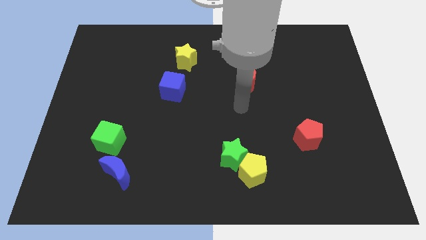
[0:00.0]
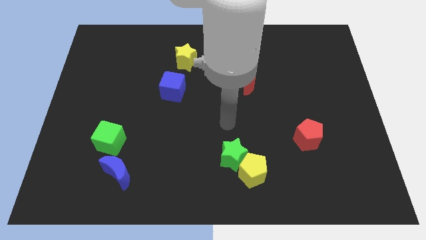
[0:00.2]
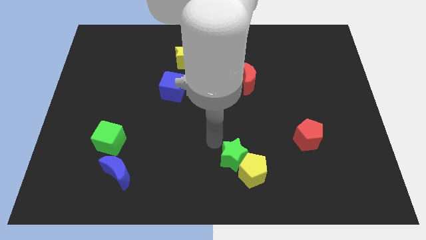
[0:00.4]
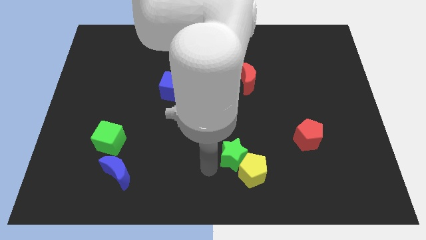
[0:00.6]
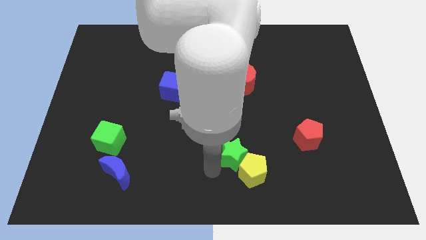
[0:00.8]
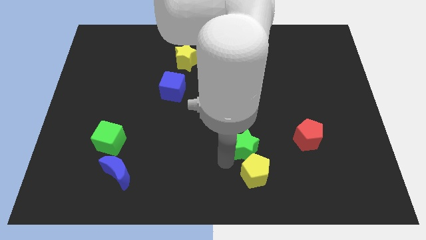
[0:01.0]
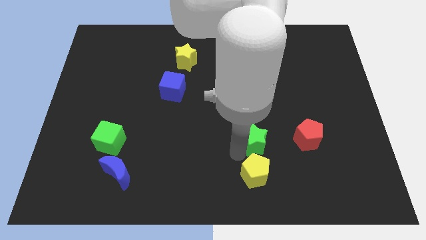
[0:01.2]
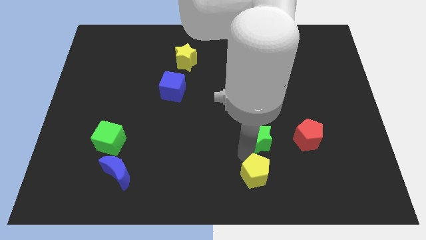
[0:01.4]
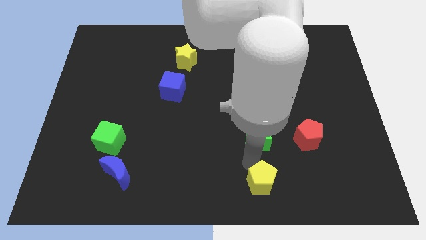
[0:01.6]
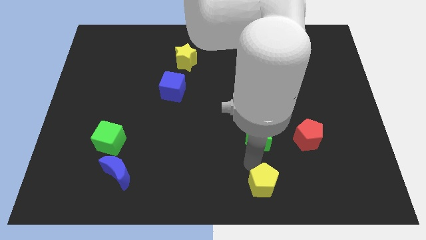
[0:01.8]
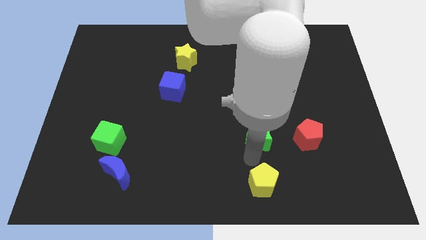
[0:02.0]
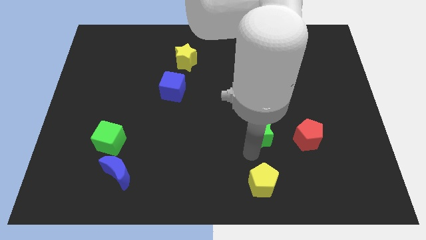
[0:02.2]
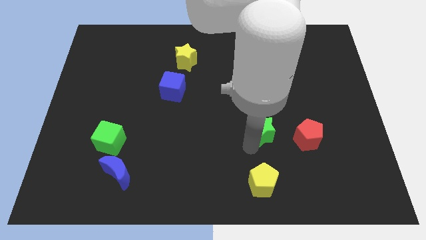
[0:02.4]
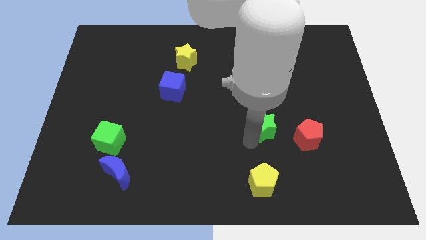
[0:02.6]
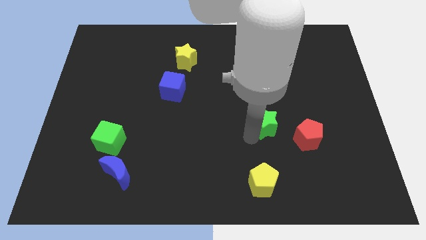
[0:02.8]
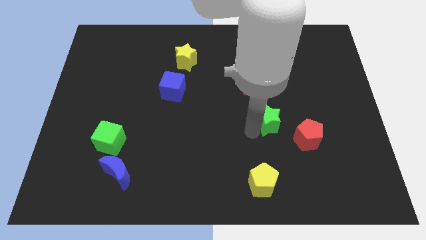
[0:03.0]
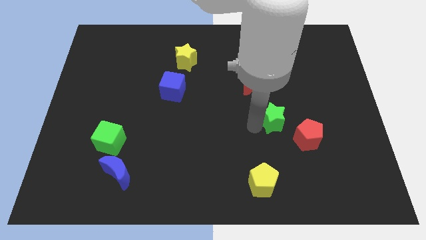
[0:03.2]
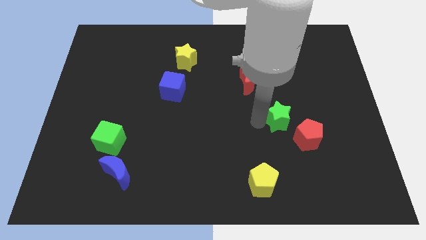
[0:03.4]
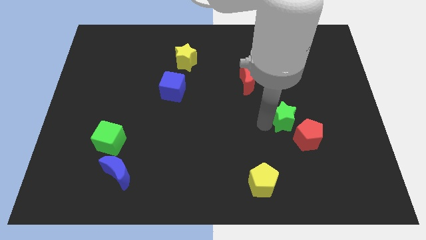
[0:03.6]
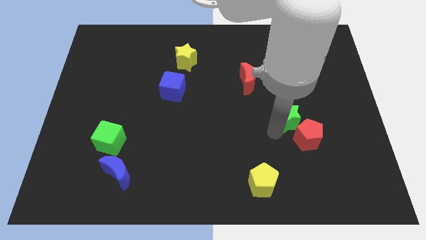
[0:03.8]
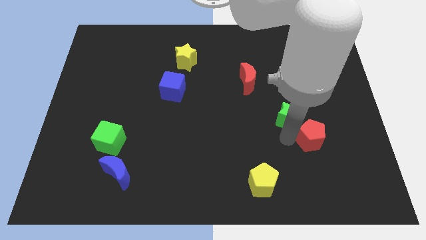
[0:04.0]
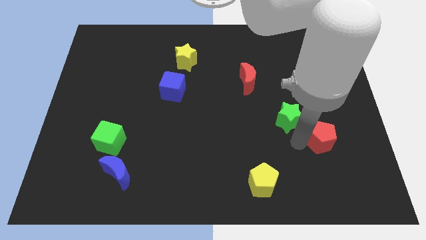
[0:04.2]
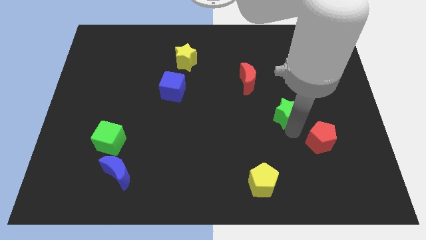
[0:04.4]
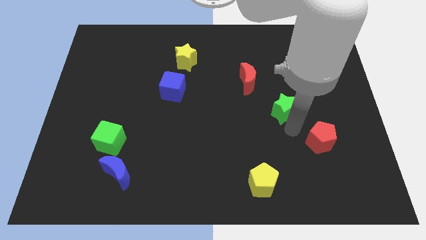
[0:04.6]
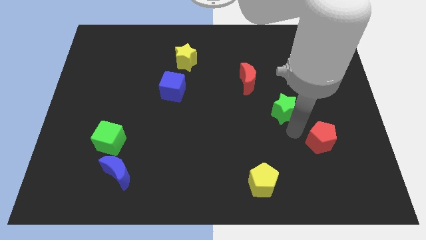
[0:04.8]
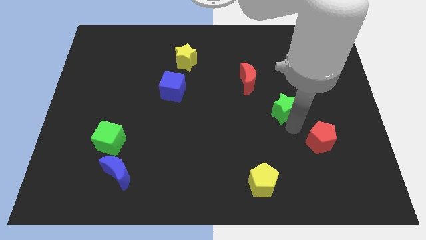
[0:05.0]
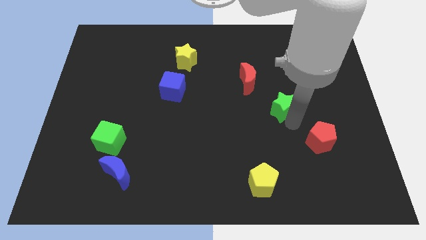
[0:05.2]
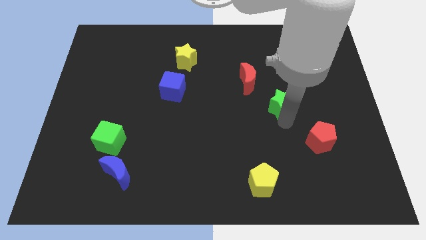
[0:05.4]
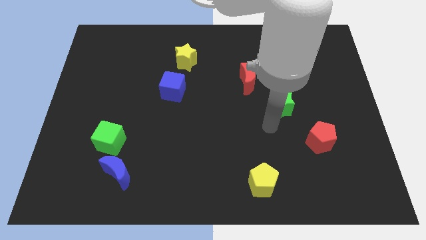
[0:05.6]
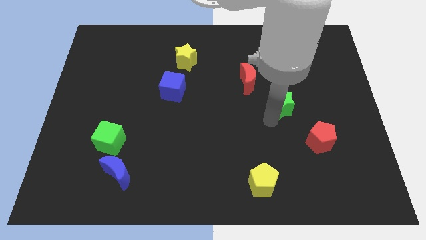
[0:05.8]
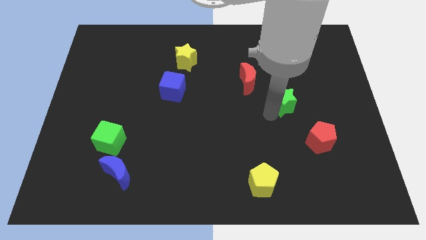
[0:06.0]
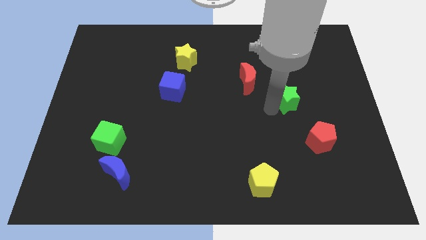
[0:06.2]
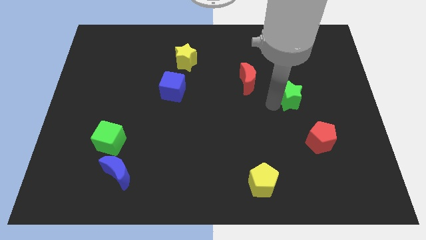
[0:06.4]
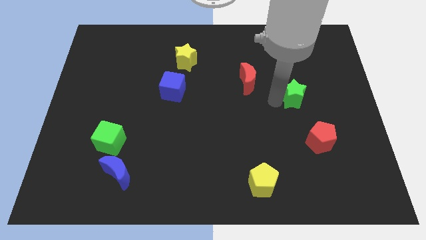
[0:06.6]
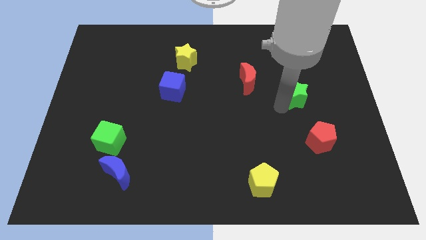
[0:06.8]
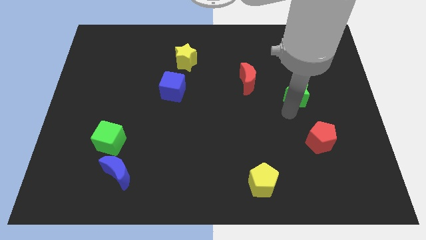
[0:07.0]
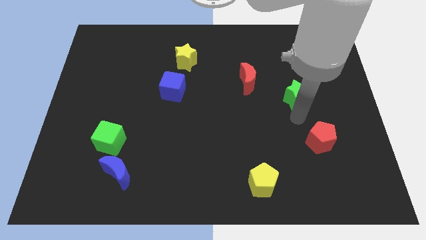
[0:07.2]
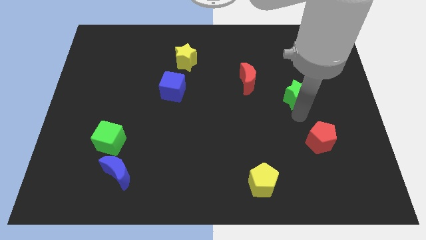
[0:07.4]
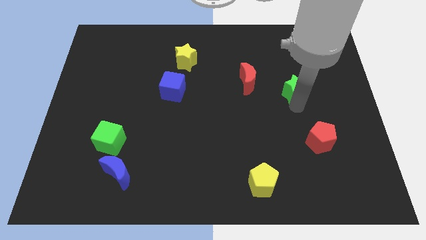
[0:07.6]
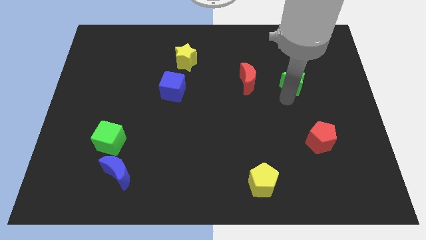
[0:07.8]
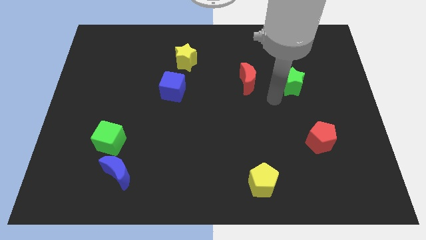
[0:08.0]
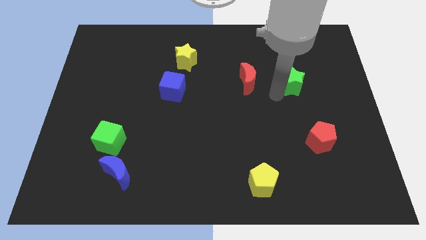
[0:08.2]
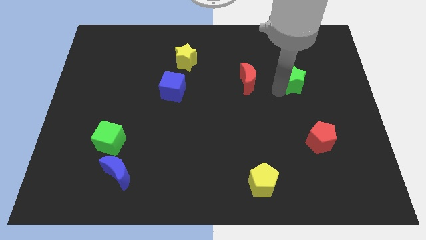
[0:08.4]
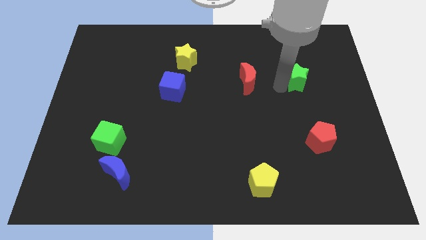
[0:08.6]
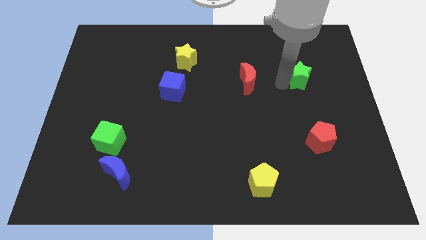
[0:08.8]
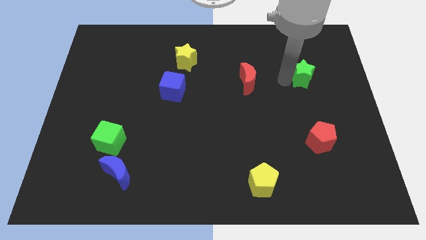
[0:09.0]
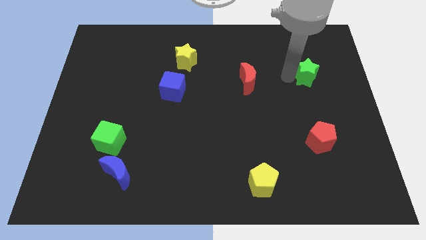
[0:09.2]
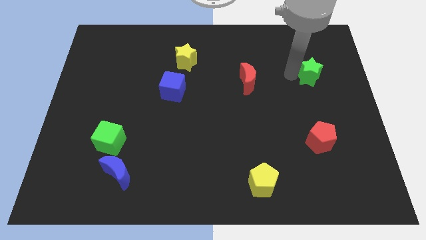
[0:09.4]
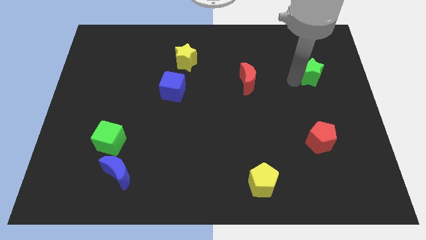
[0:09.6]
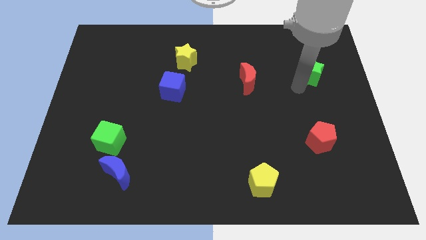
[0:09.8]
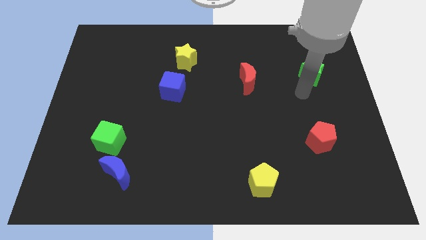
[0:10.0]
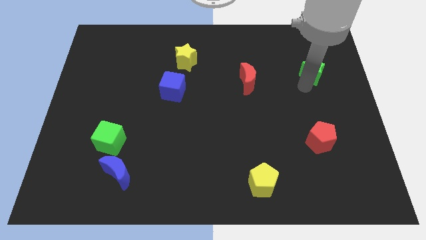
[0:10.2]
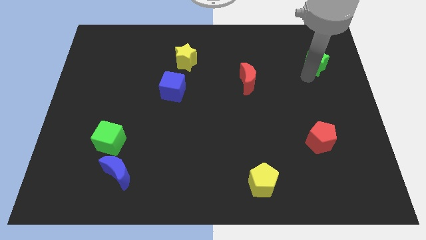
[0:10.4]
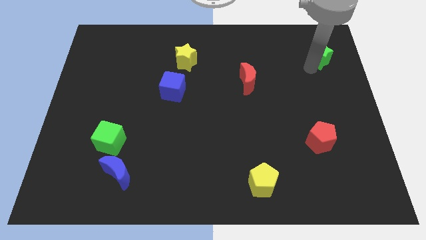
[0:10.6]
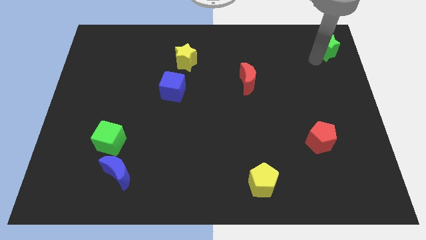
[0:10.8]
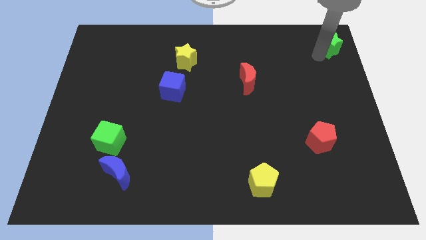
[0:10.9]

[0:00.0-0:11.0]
put the green star to the top right

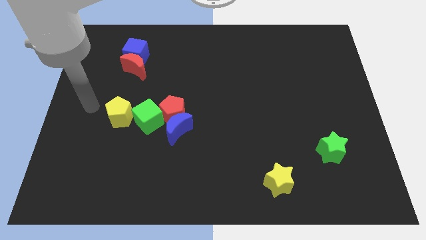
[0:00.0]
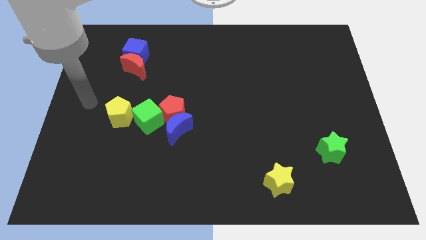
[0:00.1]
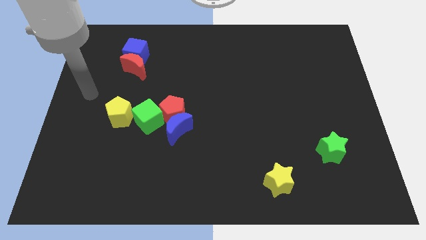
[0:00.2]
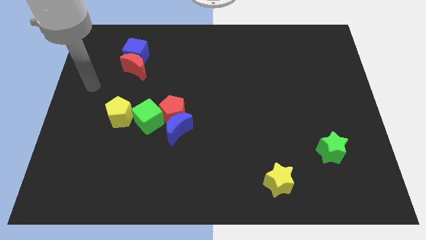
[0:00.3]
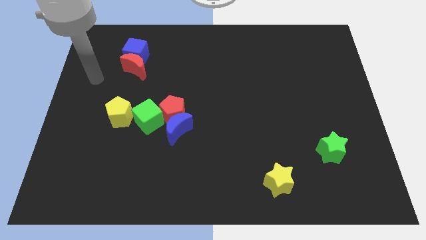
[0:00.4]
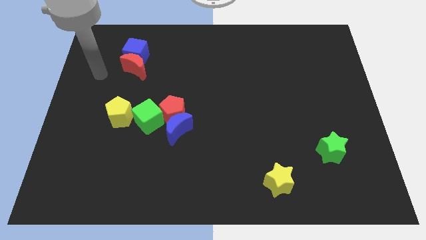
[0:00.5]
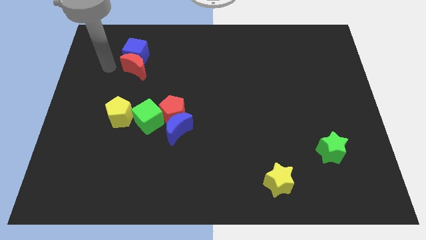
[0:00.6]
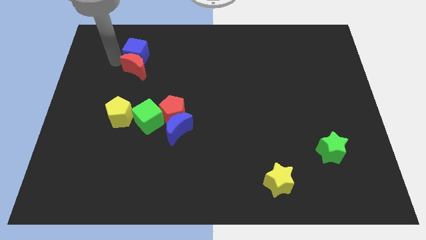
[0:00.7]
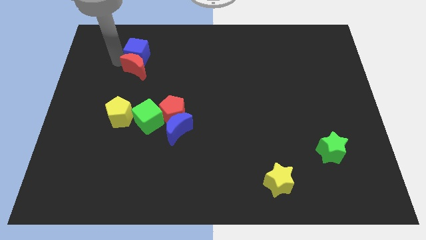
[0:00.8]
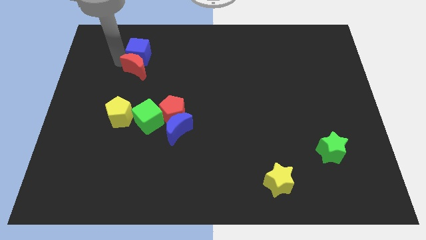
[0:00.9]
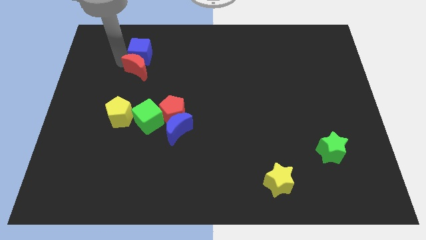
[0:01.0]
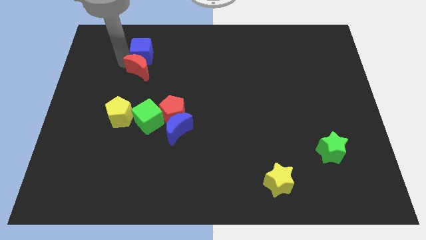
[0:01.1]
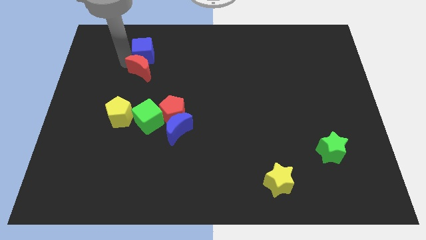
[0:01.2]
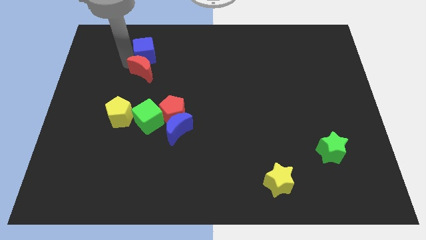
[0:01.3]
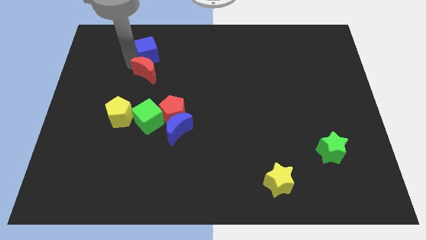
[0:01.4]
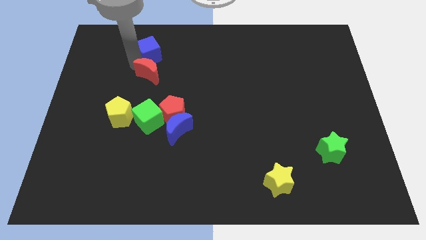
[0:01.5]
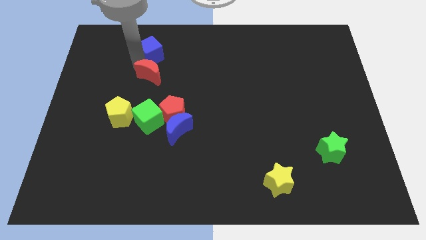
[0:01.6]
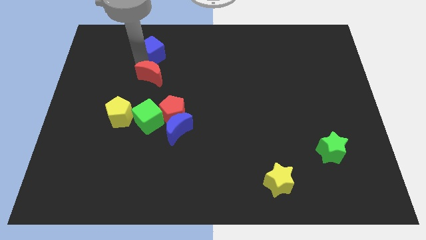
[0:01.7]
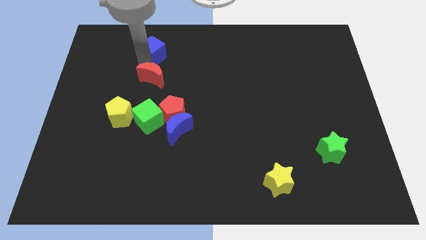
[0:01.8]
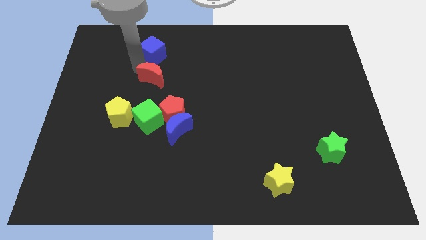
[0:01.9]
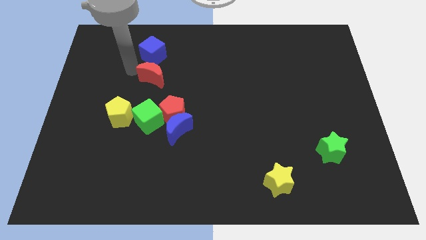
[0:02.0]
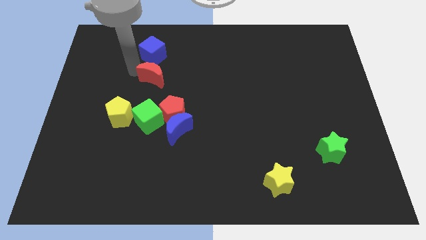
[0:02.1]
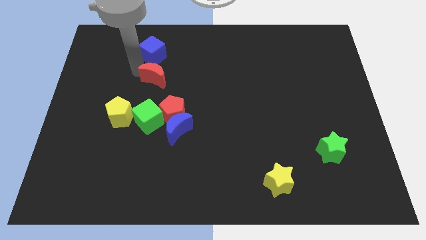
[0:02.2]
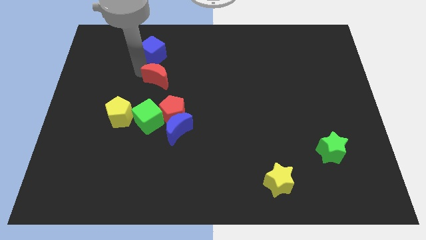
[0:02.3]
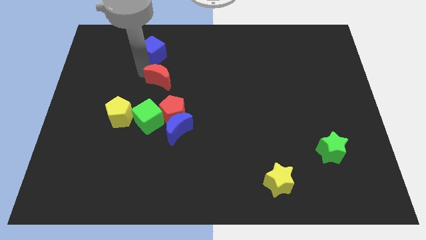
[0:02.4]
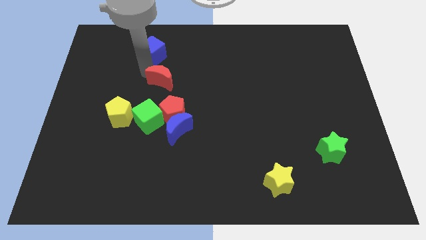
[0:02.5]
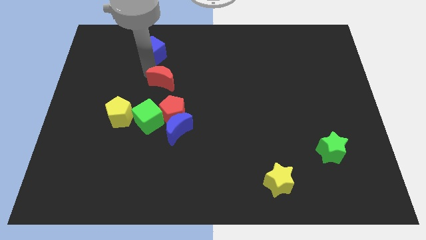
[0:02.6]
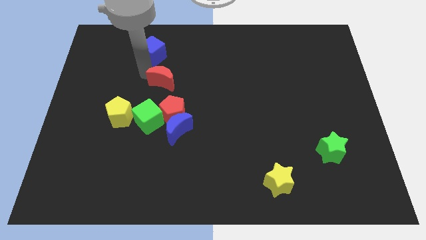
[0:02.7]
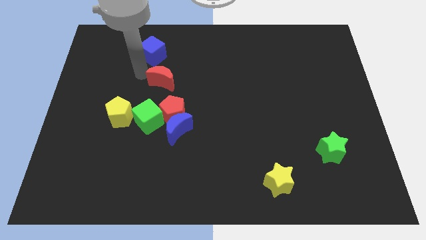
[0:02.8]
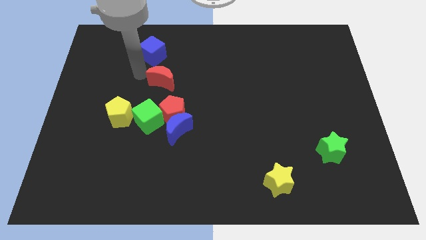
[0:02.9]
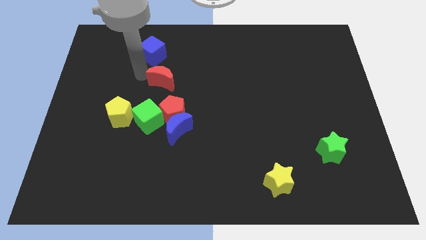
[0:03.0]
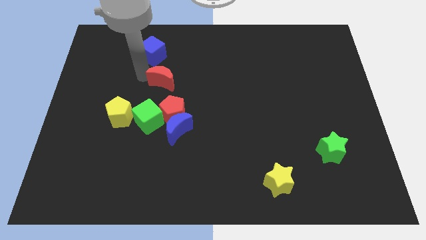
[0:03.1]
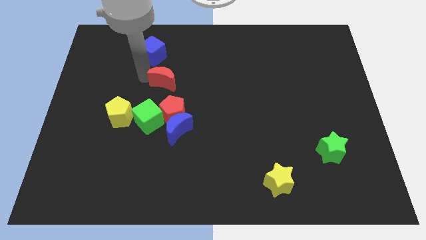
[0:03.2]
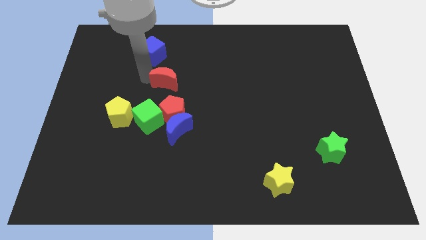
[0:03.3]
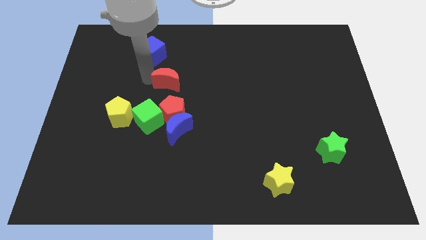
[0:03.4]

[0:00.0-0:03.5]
slide the red moon to the middle
